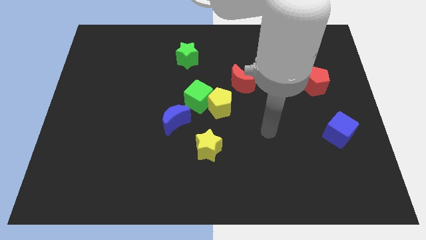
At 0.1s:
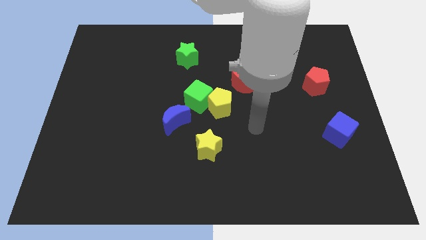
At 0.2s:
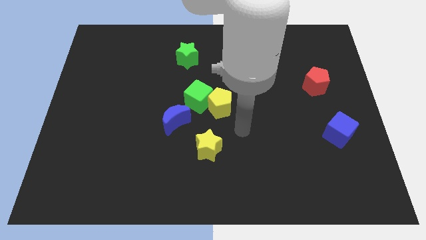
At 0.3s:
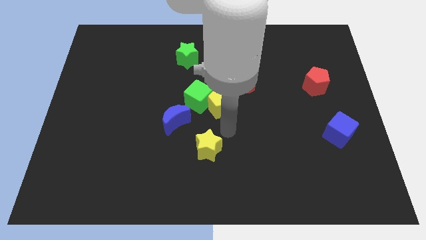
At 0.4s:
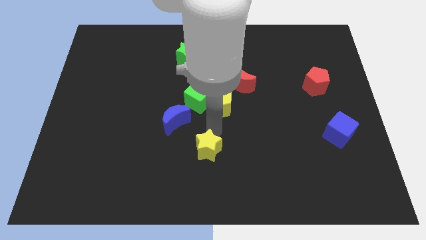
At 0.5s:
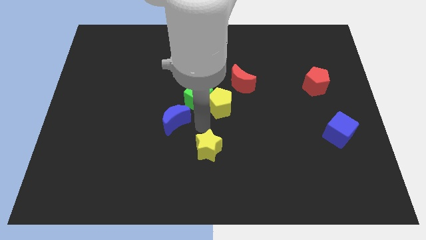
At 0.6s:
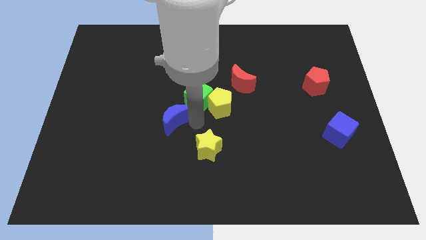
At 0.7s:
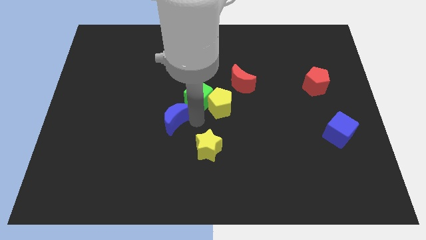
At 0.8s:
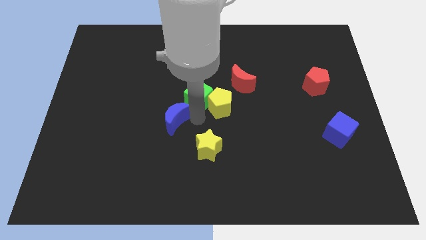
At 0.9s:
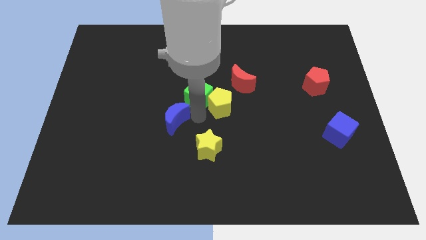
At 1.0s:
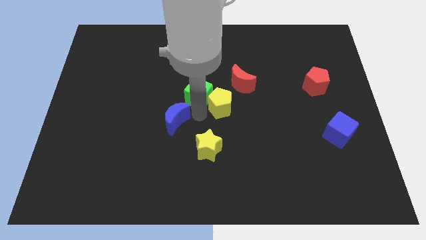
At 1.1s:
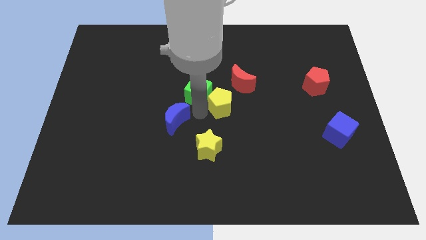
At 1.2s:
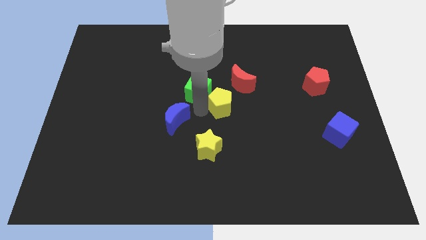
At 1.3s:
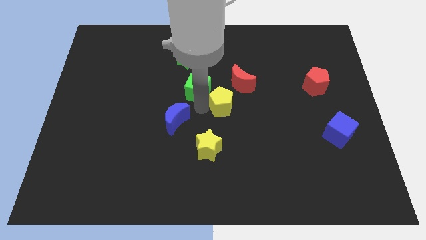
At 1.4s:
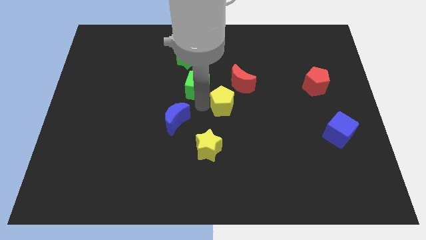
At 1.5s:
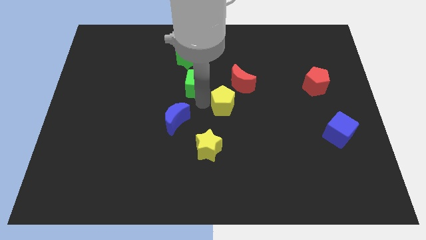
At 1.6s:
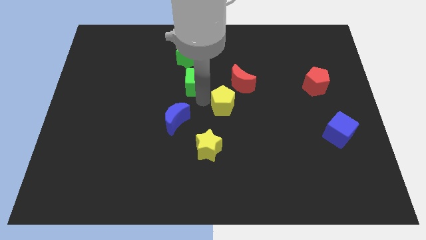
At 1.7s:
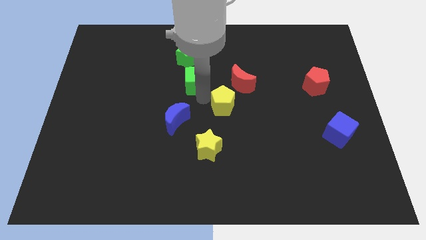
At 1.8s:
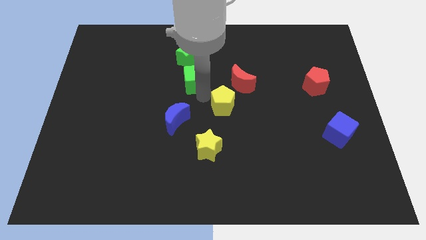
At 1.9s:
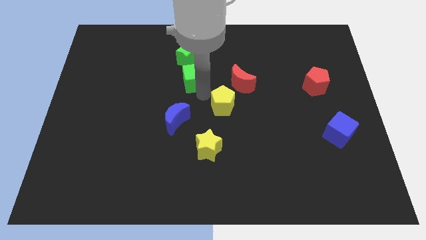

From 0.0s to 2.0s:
move the green cube away from the yellow pentagon and blue moon

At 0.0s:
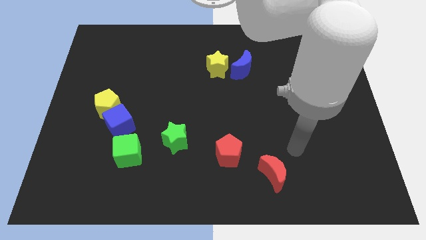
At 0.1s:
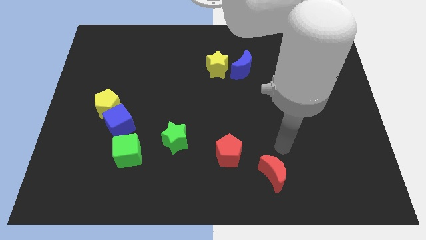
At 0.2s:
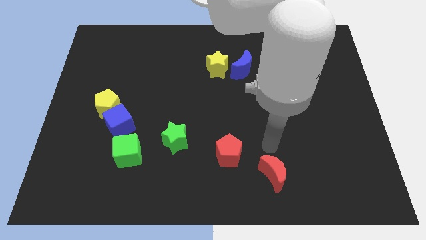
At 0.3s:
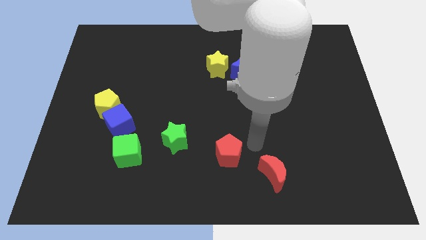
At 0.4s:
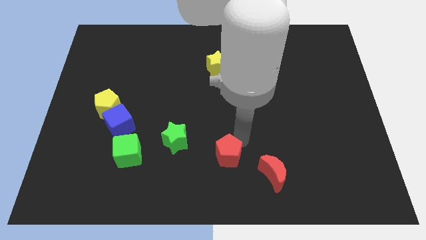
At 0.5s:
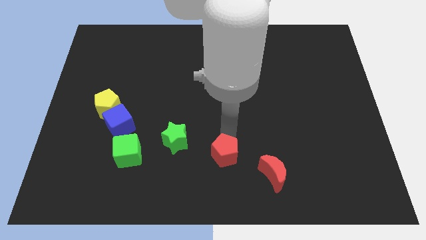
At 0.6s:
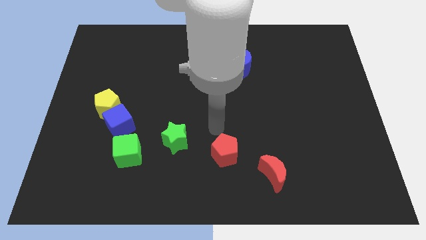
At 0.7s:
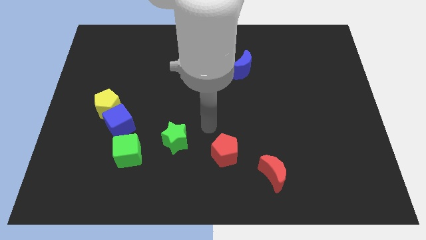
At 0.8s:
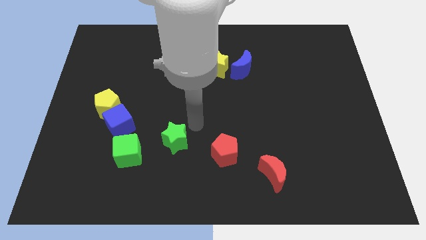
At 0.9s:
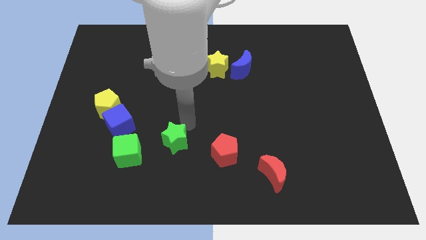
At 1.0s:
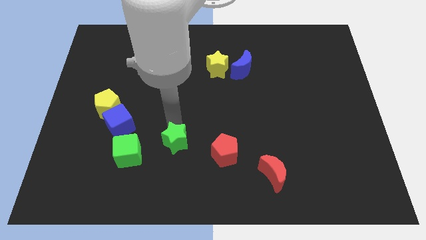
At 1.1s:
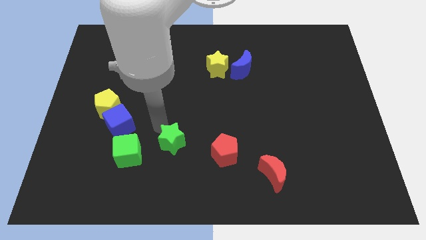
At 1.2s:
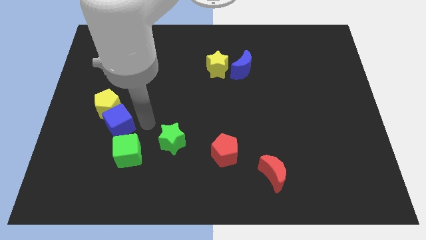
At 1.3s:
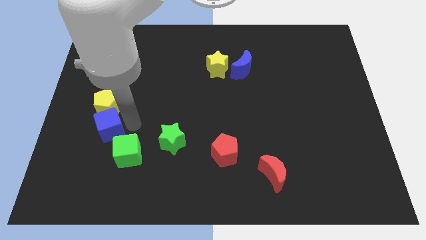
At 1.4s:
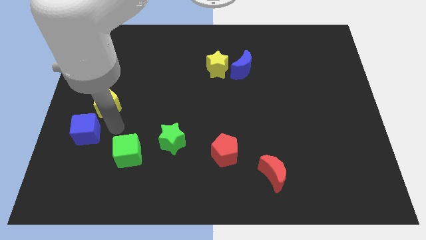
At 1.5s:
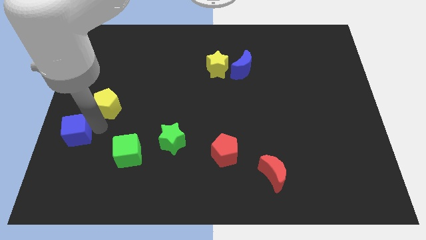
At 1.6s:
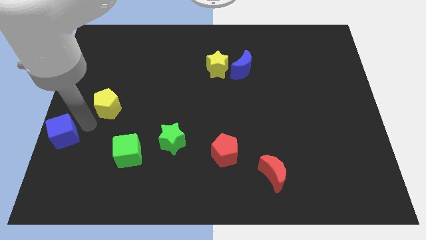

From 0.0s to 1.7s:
move the yellow pentagon away from the blue cube

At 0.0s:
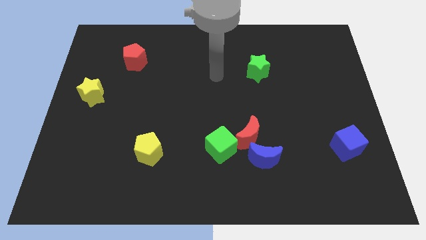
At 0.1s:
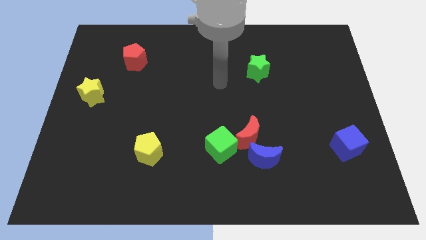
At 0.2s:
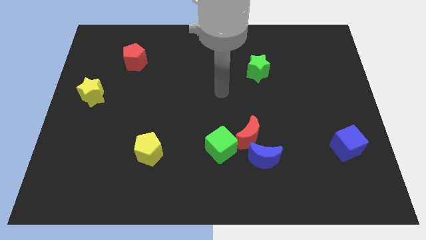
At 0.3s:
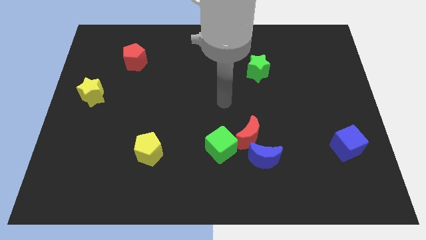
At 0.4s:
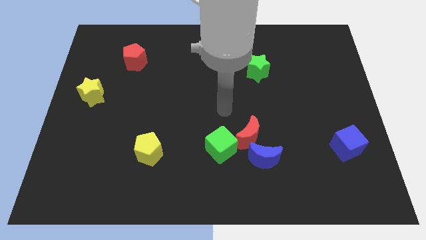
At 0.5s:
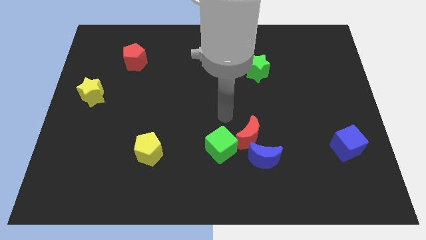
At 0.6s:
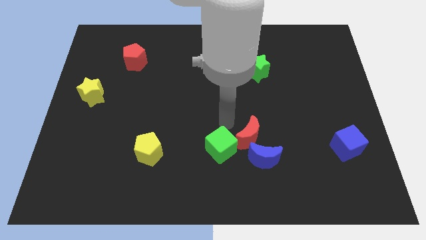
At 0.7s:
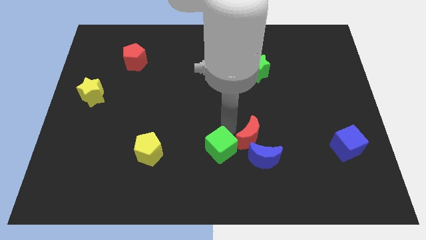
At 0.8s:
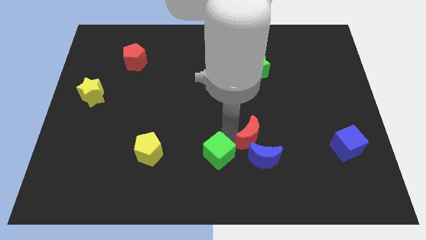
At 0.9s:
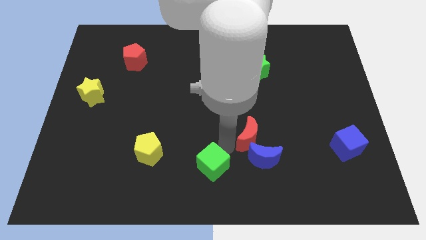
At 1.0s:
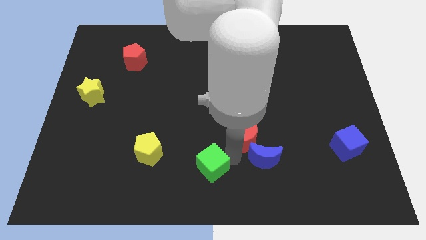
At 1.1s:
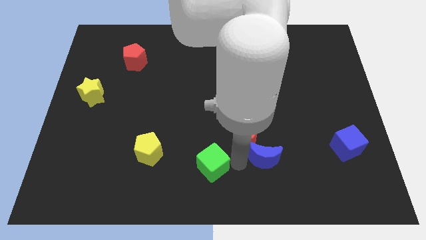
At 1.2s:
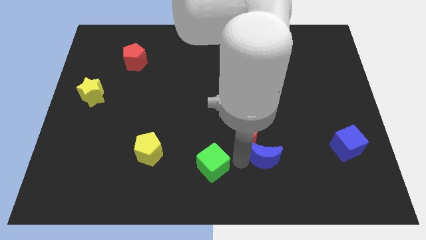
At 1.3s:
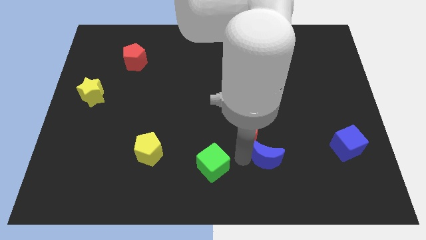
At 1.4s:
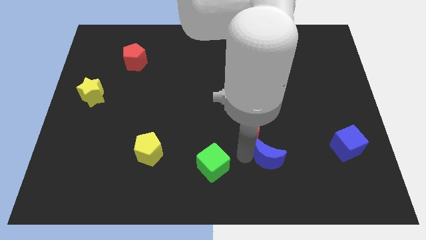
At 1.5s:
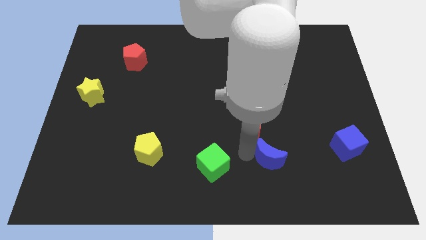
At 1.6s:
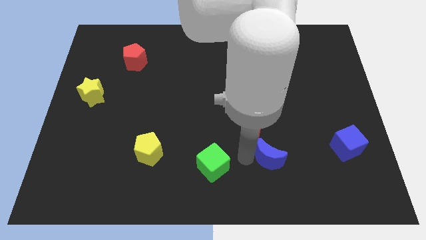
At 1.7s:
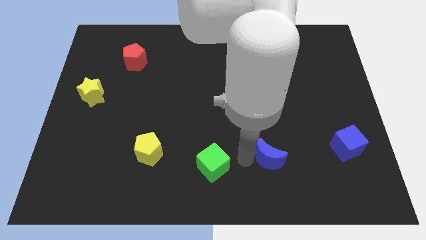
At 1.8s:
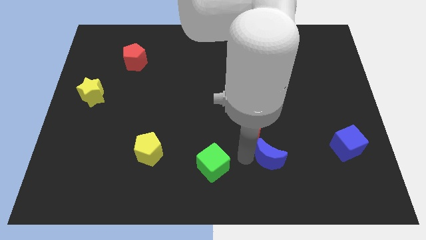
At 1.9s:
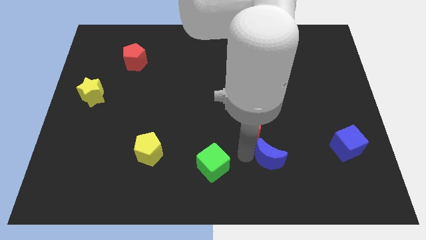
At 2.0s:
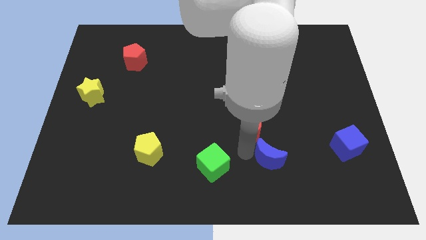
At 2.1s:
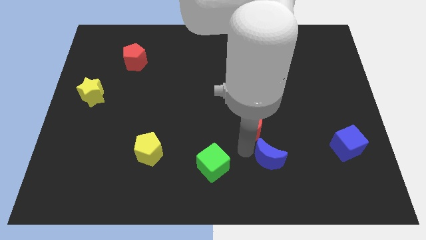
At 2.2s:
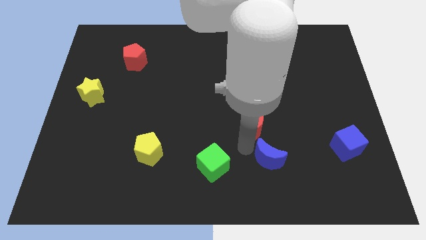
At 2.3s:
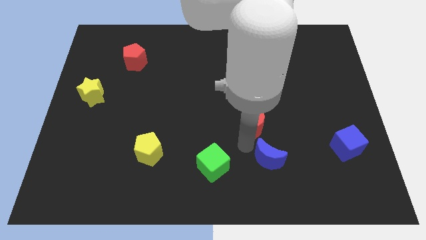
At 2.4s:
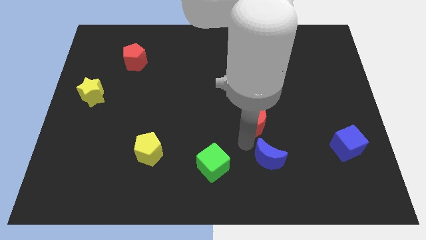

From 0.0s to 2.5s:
separate the red moon from the blue moon and green cube

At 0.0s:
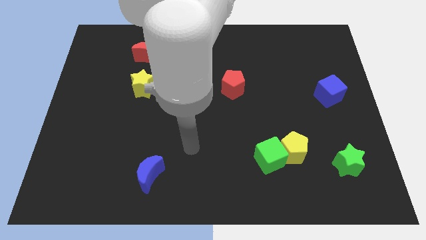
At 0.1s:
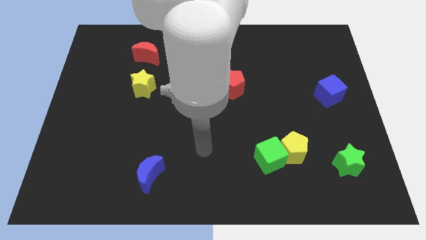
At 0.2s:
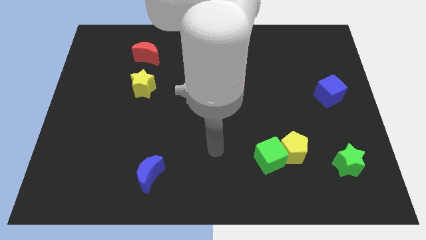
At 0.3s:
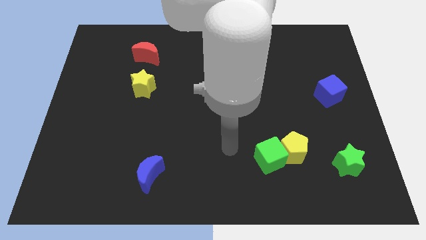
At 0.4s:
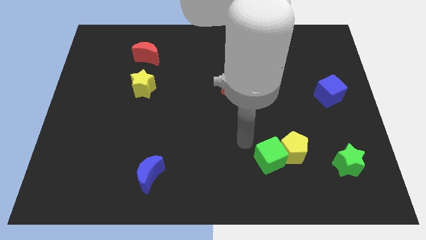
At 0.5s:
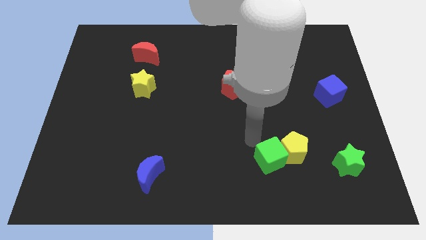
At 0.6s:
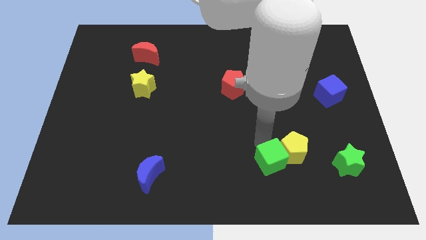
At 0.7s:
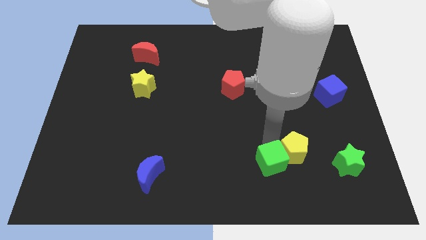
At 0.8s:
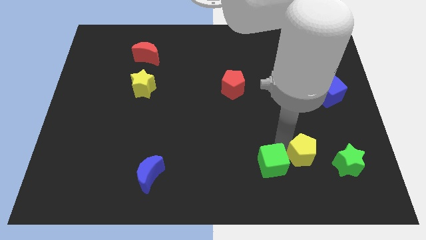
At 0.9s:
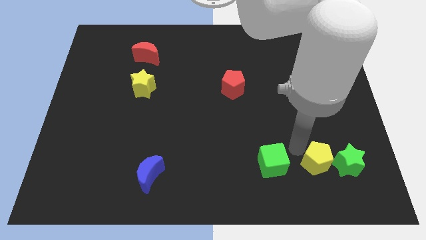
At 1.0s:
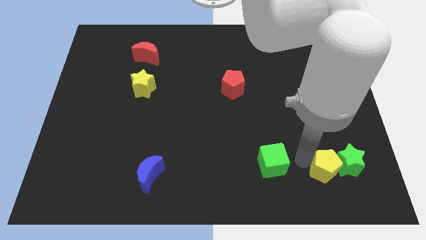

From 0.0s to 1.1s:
separate the green cube from the yellow pentagon

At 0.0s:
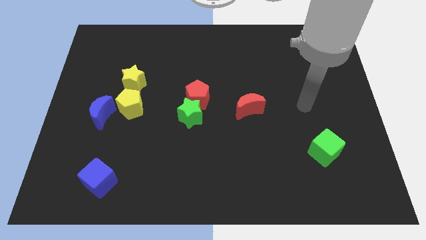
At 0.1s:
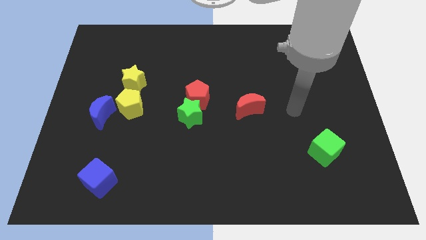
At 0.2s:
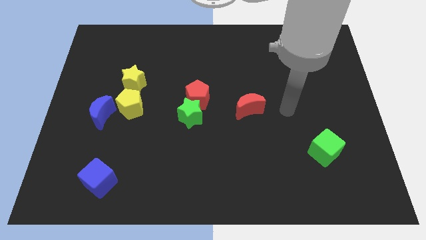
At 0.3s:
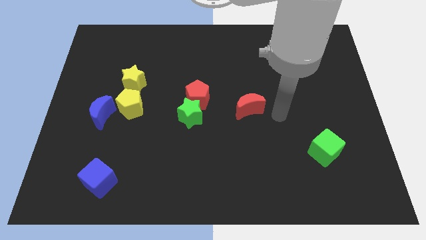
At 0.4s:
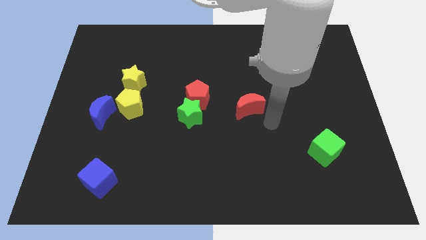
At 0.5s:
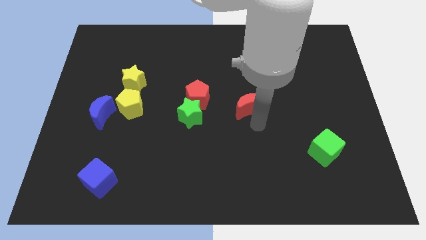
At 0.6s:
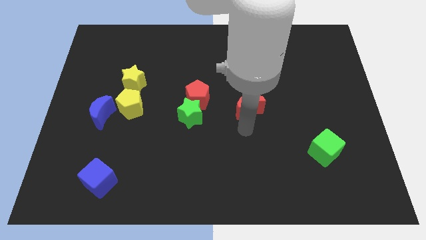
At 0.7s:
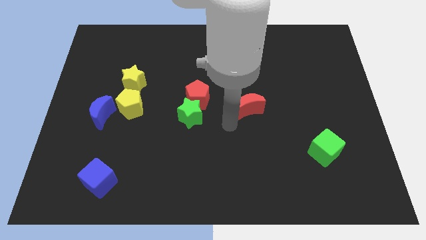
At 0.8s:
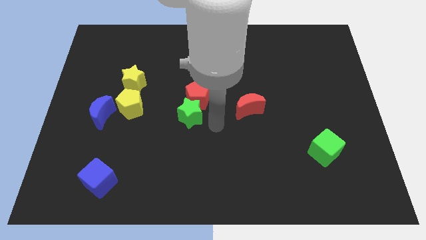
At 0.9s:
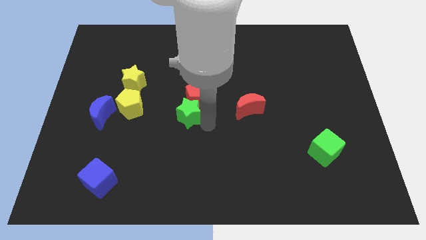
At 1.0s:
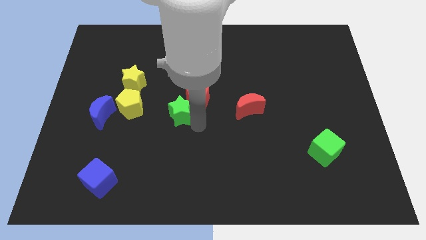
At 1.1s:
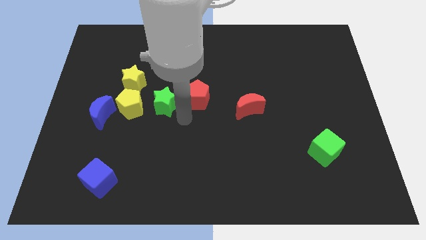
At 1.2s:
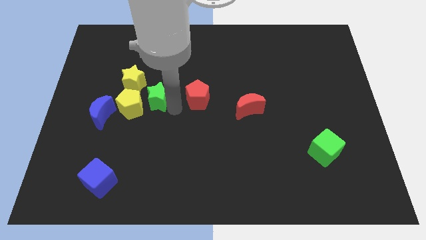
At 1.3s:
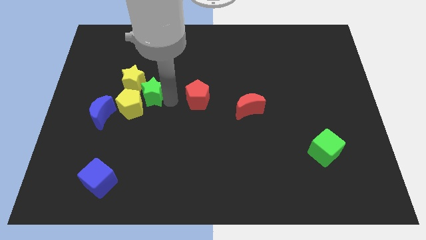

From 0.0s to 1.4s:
separate the red pentagon from the green star

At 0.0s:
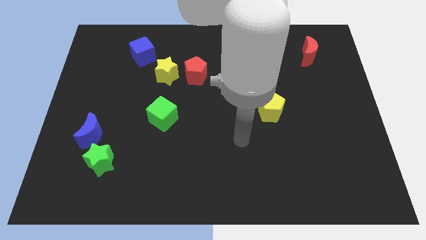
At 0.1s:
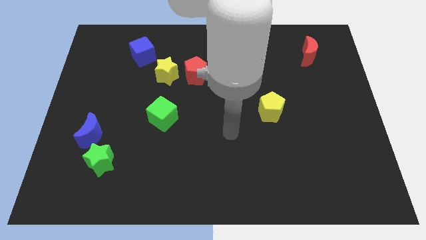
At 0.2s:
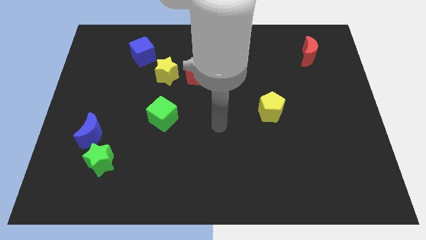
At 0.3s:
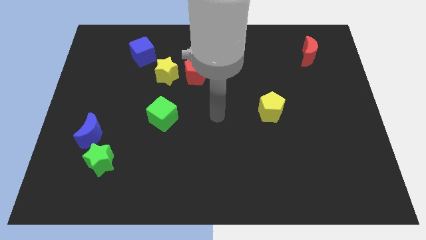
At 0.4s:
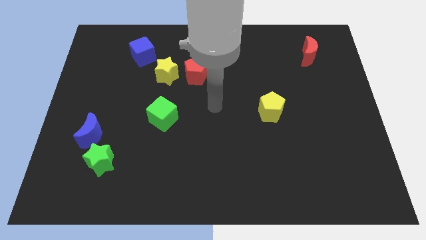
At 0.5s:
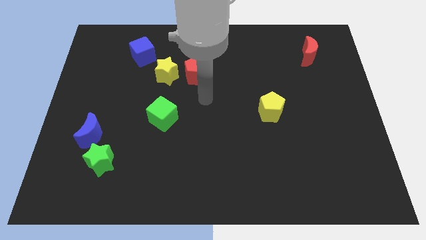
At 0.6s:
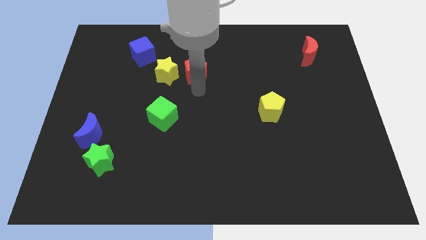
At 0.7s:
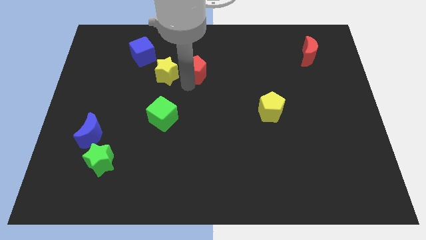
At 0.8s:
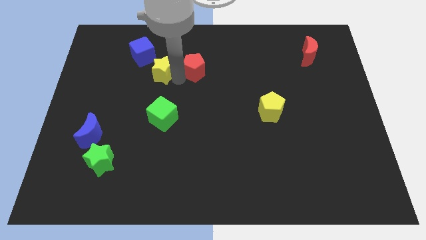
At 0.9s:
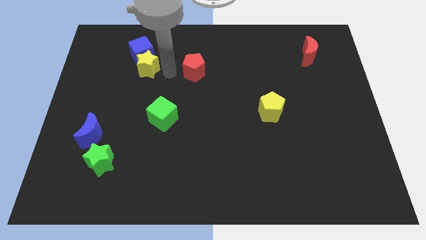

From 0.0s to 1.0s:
move the red pentagon away from the yellow star
